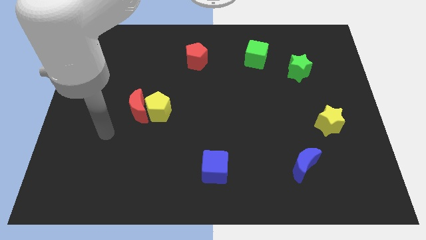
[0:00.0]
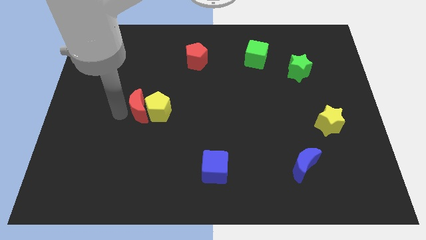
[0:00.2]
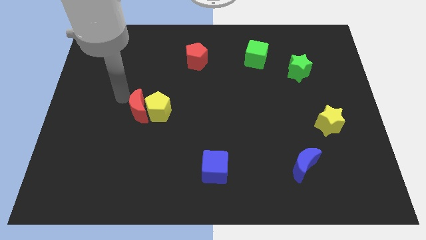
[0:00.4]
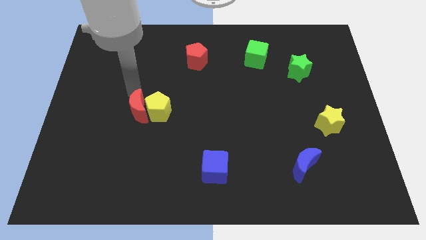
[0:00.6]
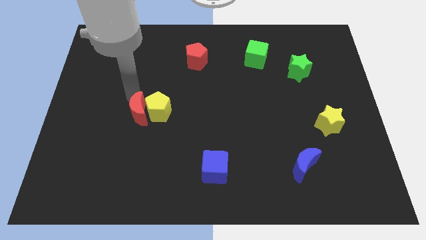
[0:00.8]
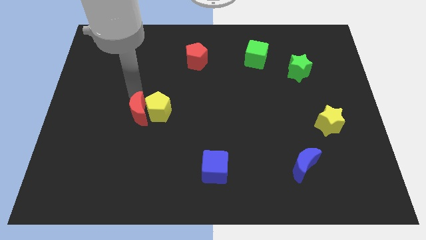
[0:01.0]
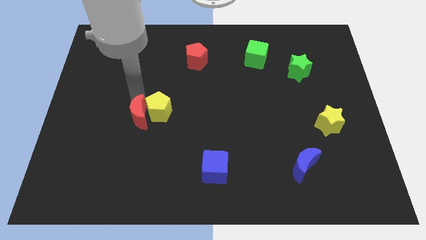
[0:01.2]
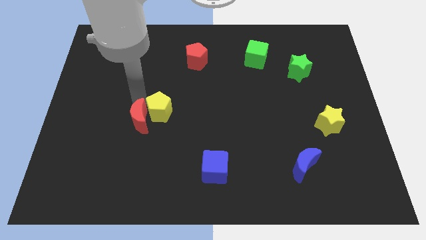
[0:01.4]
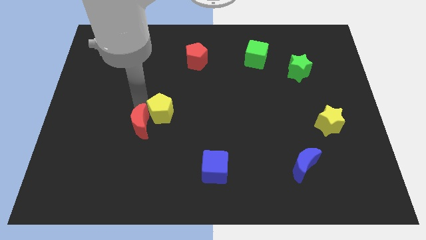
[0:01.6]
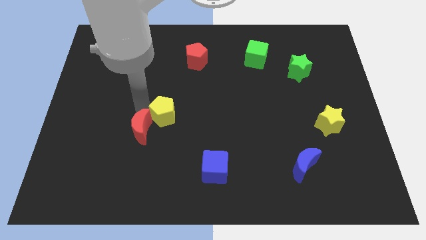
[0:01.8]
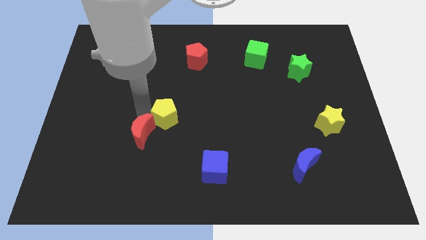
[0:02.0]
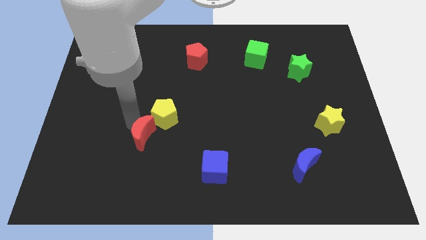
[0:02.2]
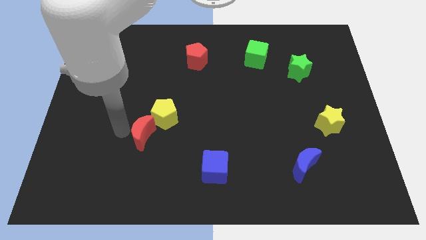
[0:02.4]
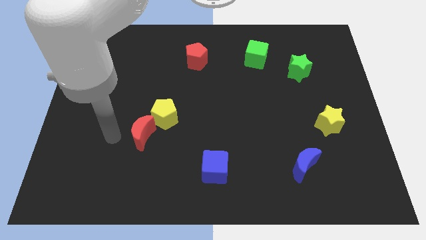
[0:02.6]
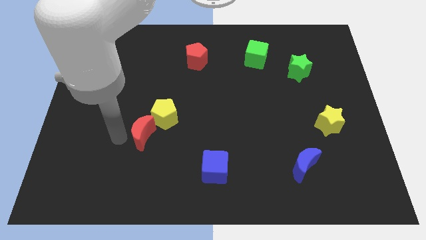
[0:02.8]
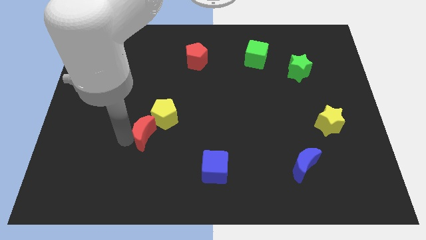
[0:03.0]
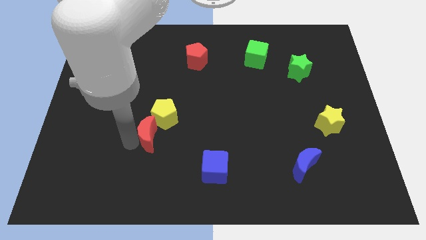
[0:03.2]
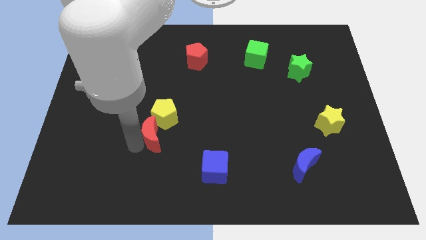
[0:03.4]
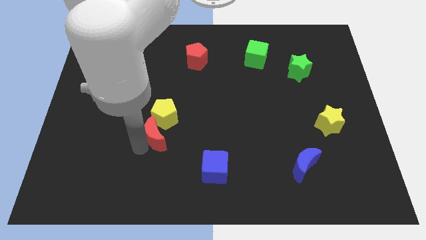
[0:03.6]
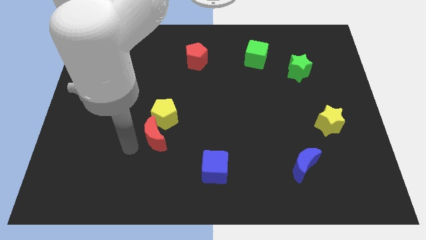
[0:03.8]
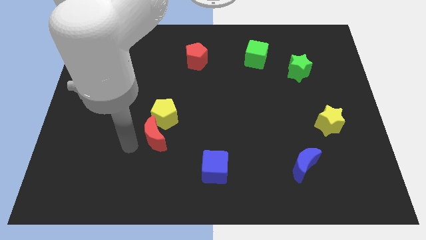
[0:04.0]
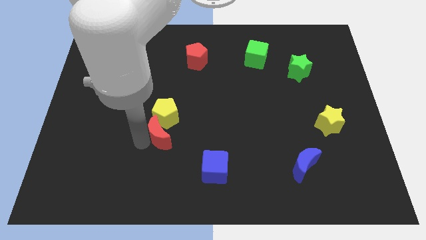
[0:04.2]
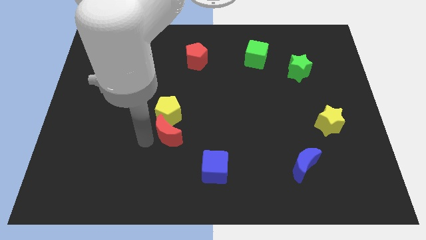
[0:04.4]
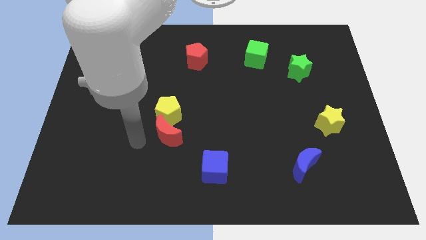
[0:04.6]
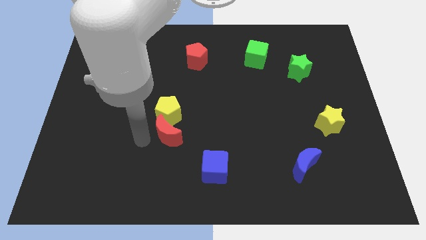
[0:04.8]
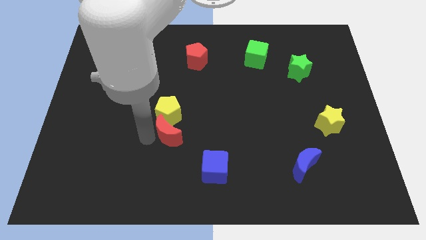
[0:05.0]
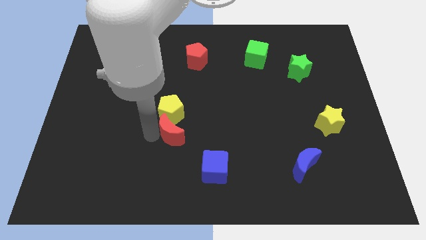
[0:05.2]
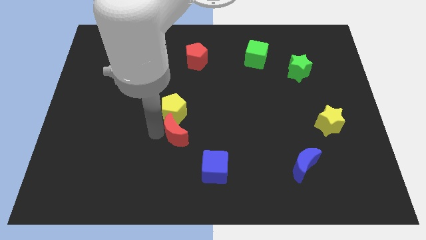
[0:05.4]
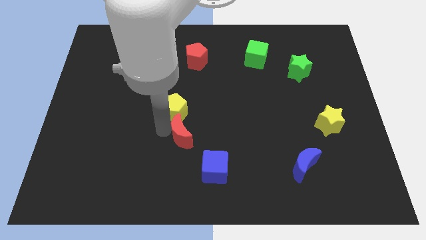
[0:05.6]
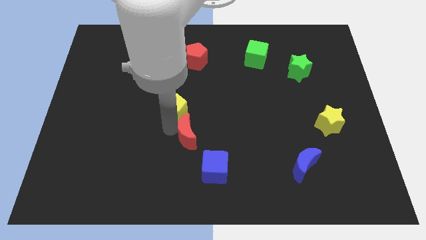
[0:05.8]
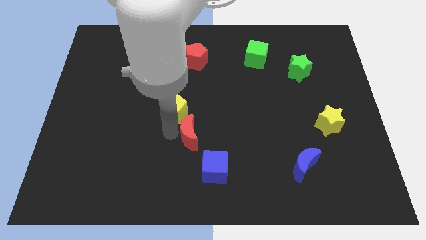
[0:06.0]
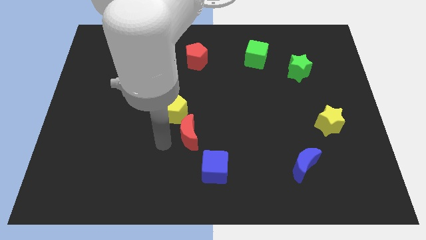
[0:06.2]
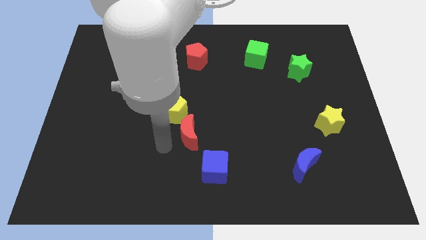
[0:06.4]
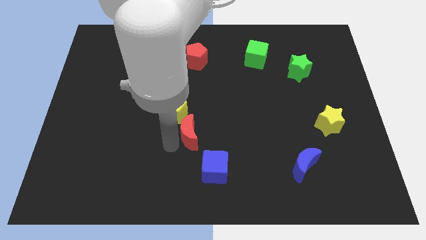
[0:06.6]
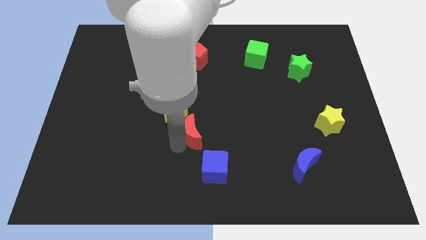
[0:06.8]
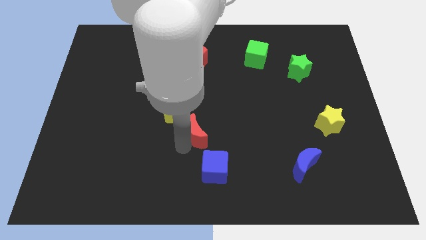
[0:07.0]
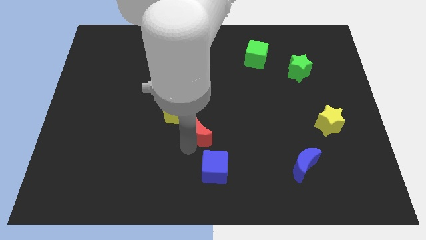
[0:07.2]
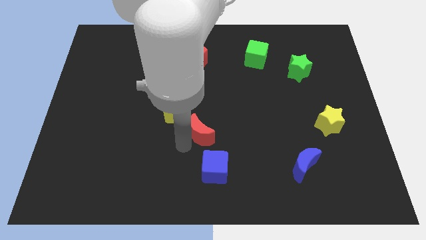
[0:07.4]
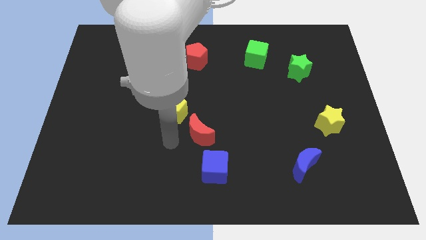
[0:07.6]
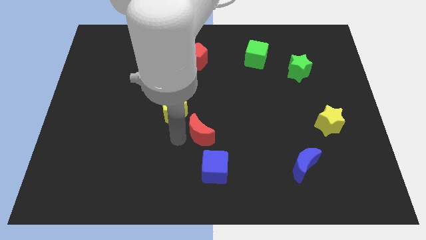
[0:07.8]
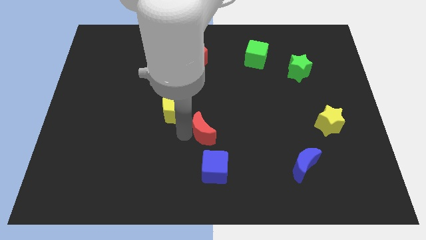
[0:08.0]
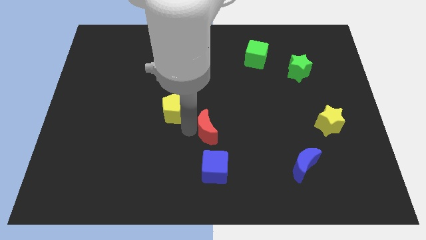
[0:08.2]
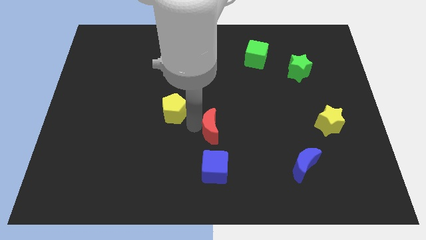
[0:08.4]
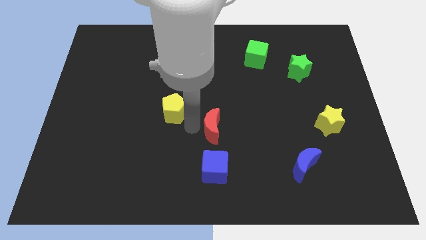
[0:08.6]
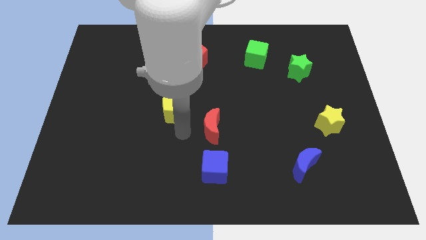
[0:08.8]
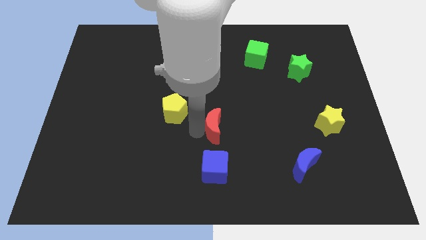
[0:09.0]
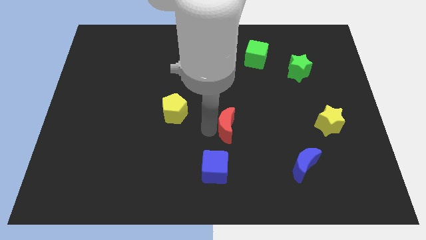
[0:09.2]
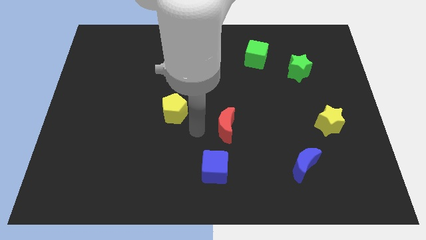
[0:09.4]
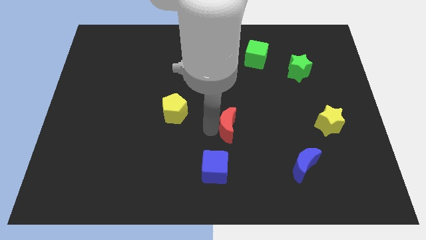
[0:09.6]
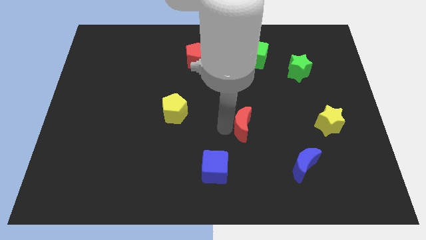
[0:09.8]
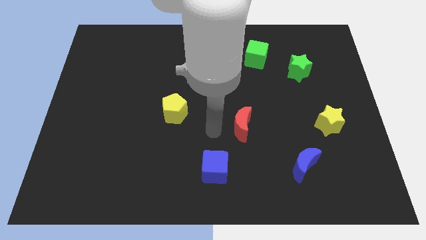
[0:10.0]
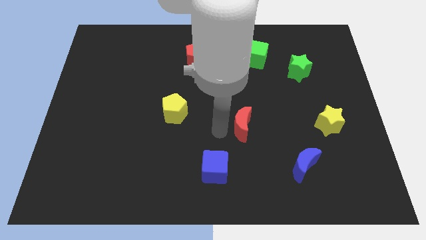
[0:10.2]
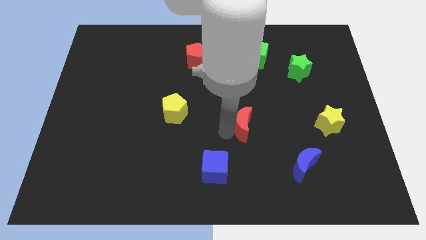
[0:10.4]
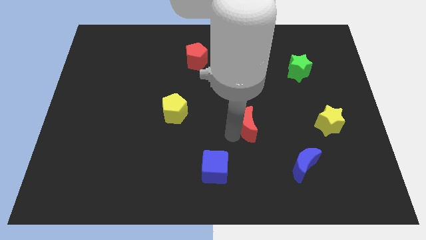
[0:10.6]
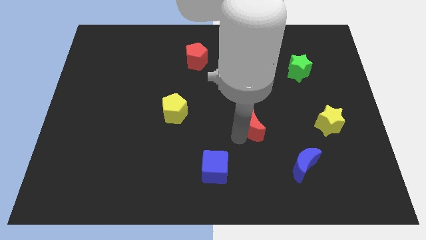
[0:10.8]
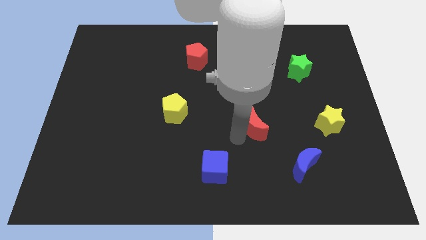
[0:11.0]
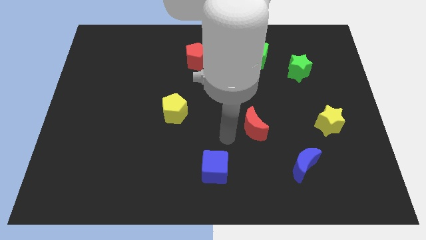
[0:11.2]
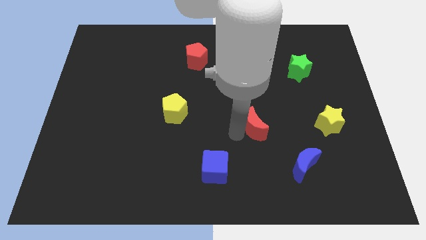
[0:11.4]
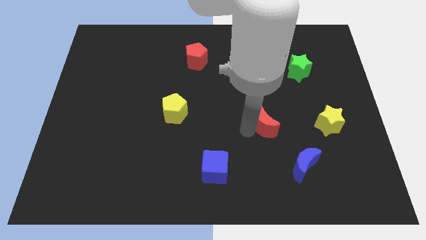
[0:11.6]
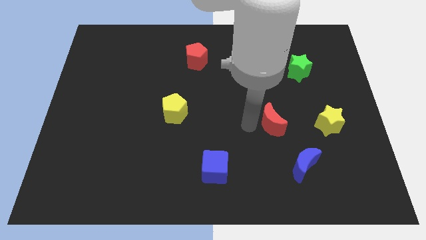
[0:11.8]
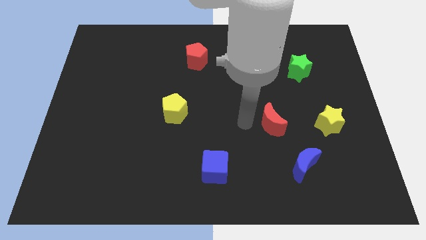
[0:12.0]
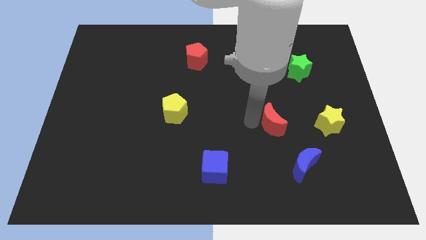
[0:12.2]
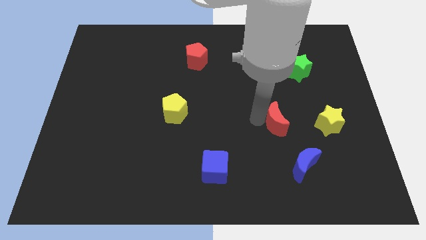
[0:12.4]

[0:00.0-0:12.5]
put the red moon above the blue moon

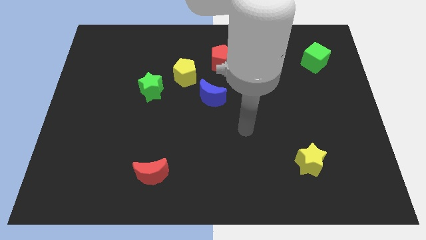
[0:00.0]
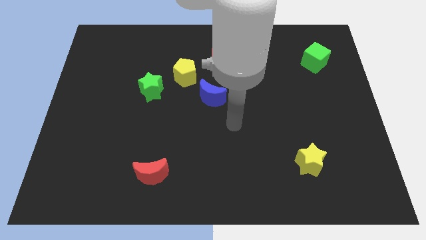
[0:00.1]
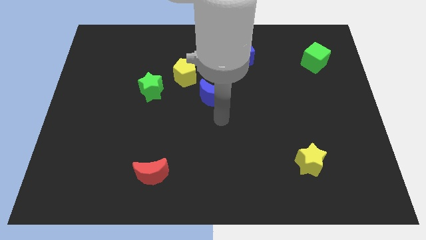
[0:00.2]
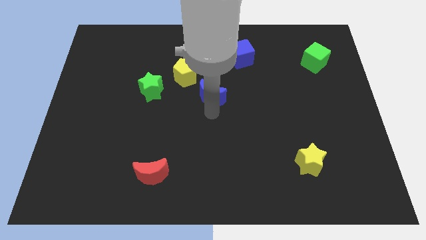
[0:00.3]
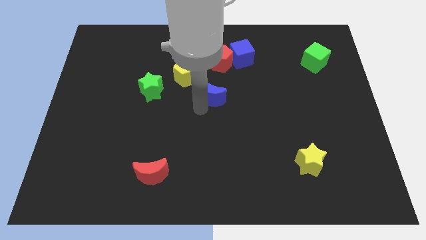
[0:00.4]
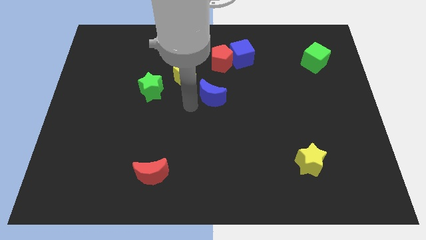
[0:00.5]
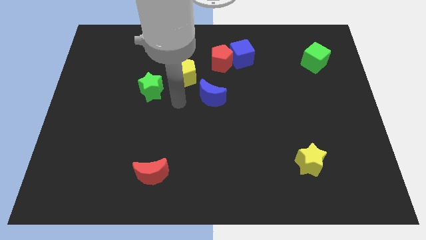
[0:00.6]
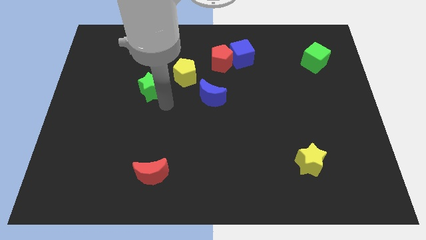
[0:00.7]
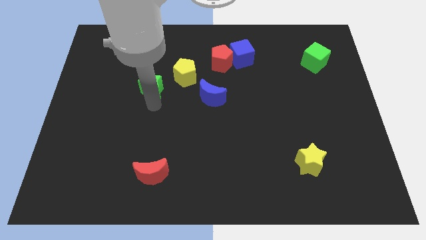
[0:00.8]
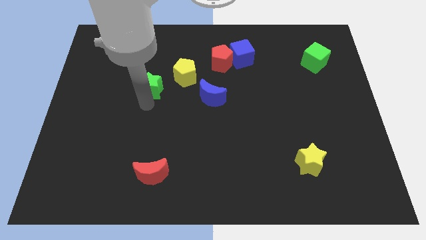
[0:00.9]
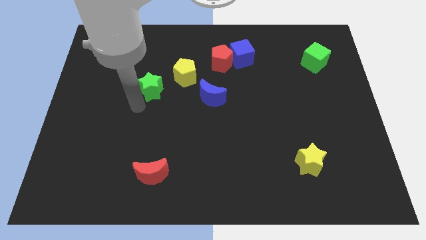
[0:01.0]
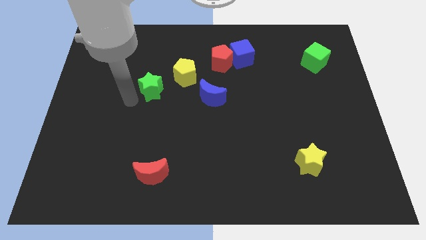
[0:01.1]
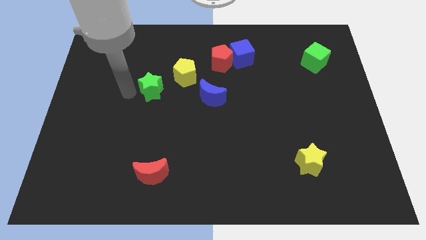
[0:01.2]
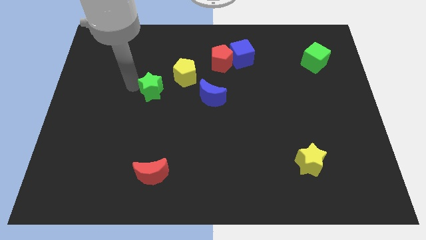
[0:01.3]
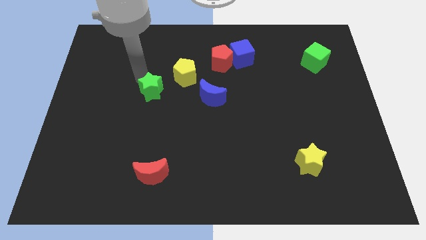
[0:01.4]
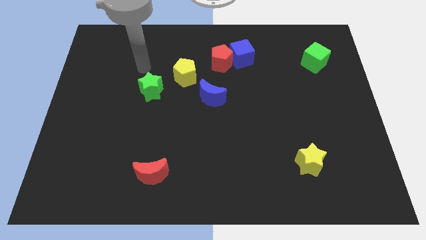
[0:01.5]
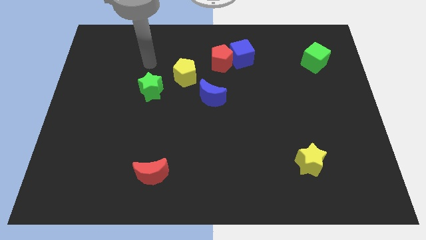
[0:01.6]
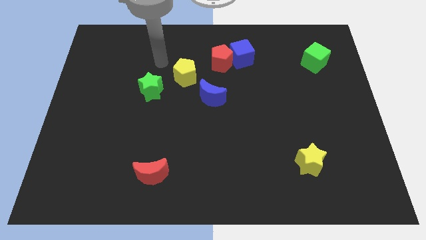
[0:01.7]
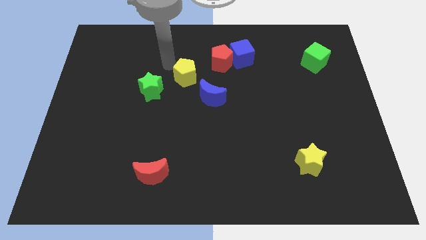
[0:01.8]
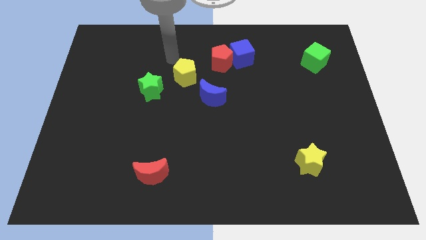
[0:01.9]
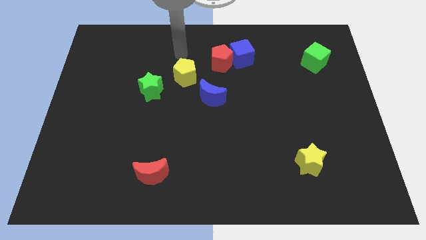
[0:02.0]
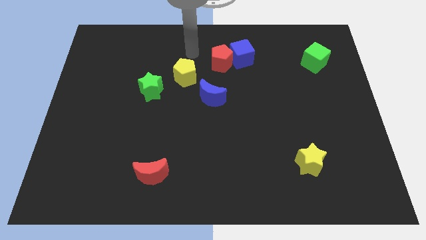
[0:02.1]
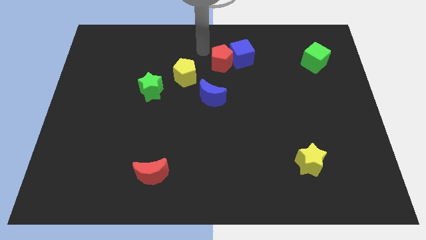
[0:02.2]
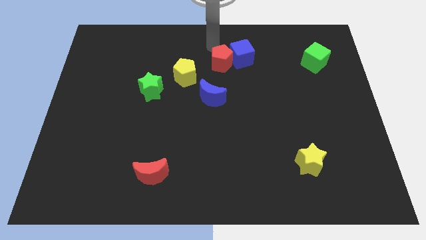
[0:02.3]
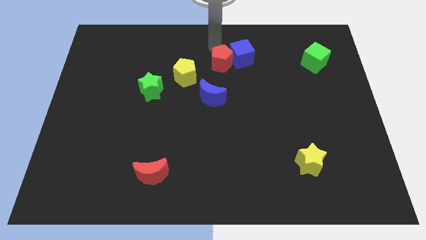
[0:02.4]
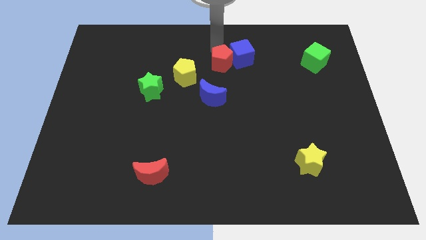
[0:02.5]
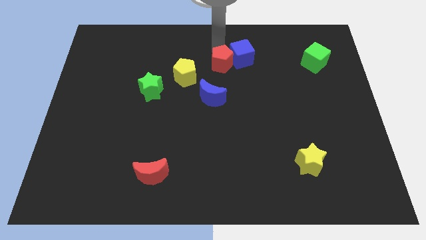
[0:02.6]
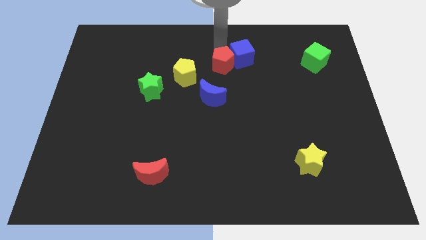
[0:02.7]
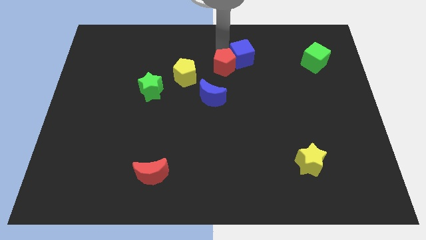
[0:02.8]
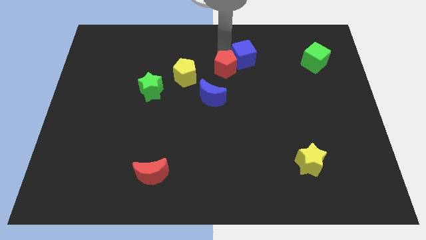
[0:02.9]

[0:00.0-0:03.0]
push the red pentagon to the top right side of the blue moon
